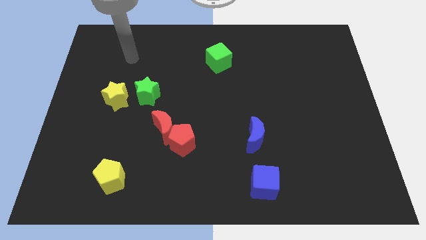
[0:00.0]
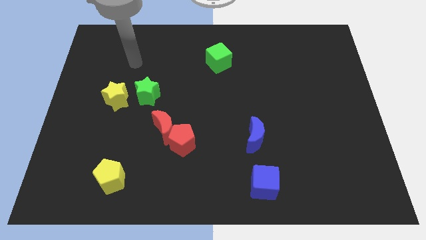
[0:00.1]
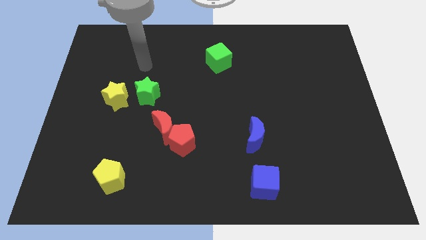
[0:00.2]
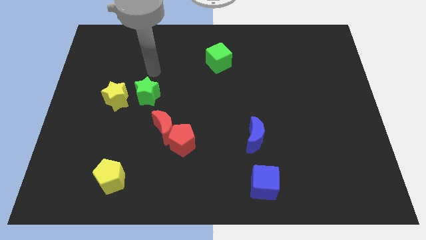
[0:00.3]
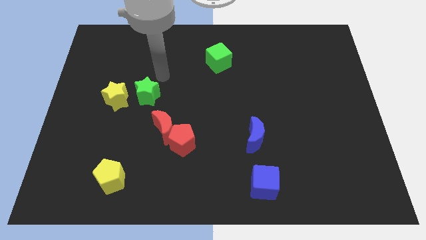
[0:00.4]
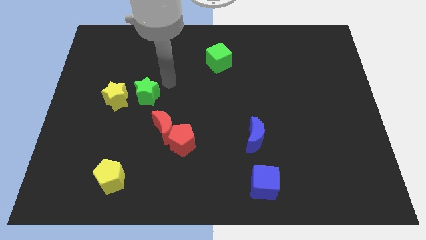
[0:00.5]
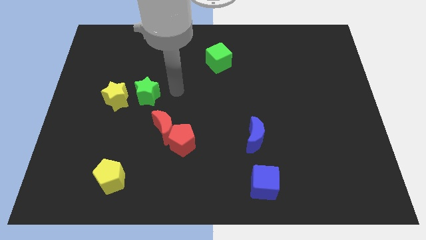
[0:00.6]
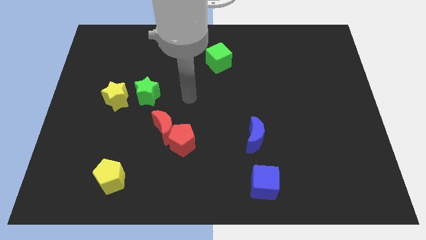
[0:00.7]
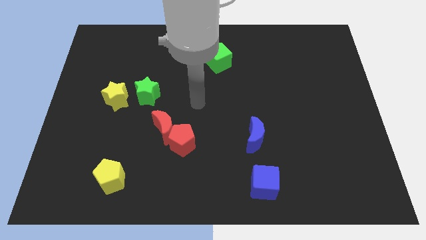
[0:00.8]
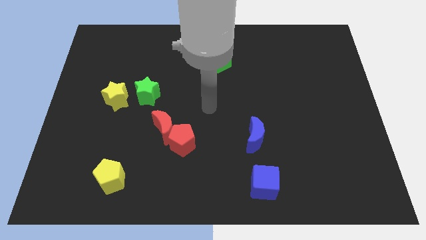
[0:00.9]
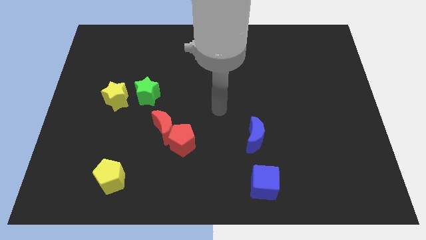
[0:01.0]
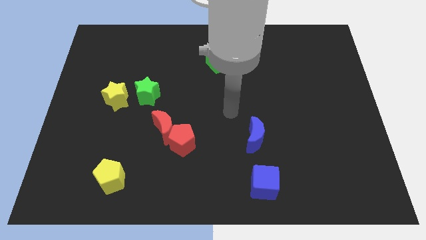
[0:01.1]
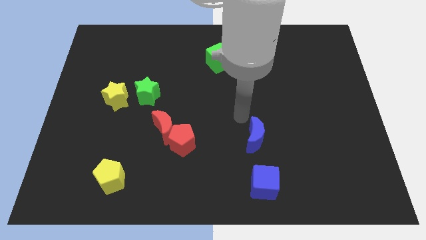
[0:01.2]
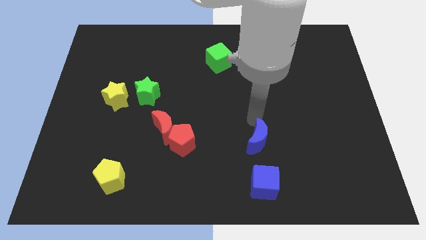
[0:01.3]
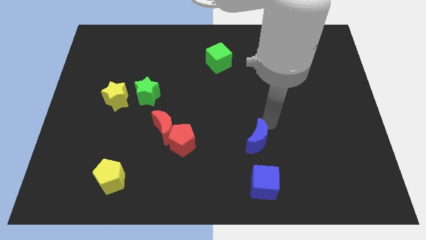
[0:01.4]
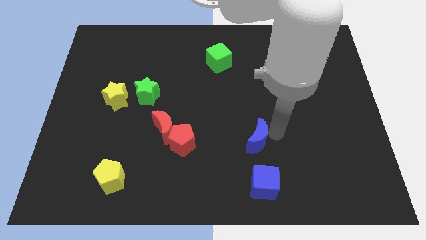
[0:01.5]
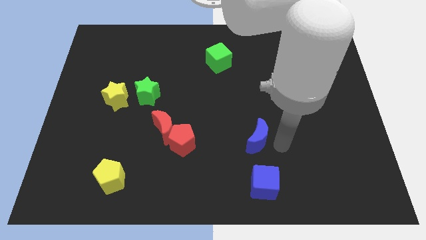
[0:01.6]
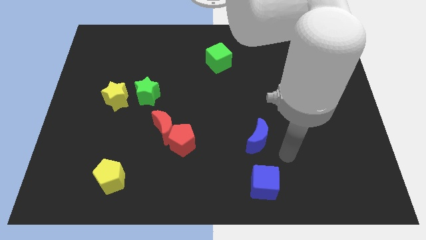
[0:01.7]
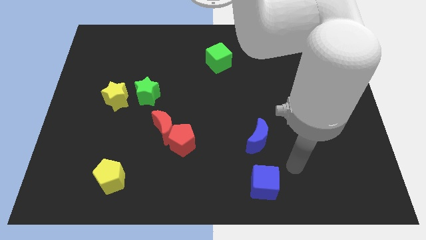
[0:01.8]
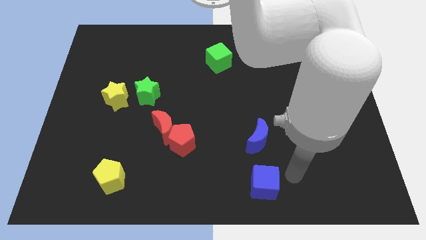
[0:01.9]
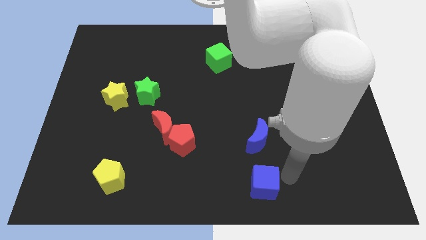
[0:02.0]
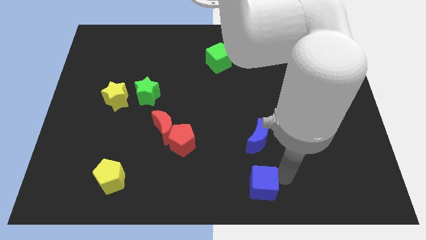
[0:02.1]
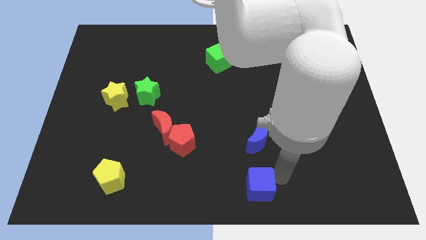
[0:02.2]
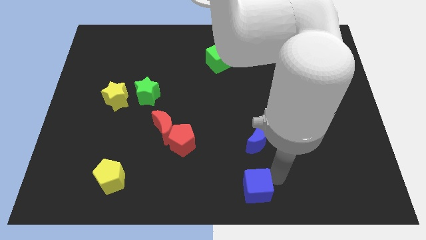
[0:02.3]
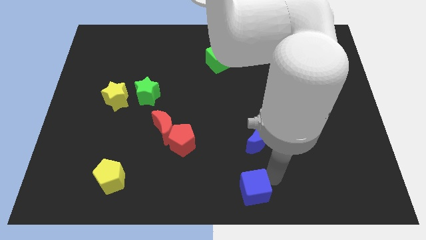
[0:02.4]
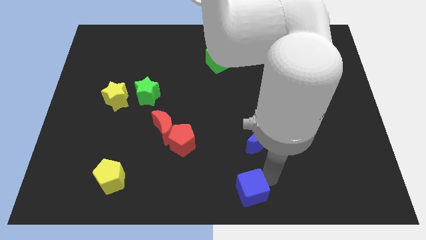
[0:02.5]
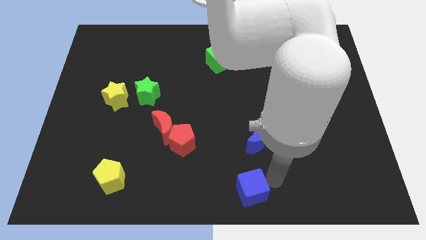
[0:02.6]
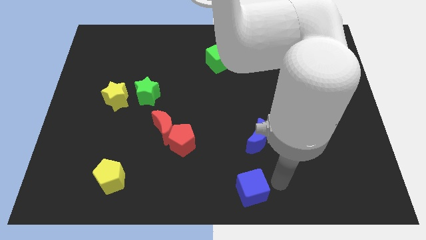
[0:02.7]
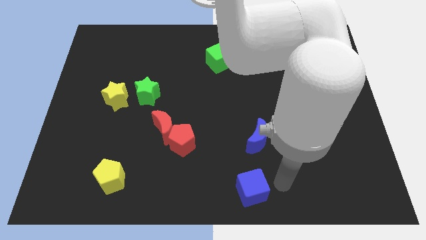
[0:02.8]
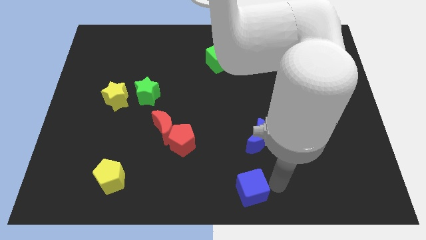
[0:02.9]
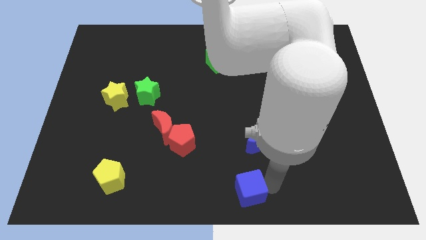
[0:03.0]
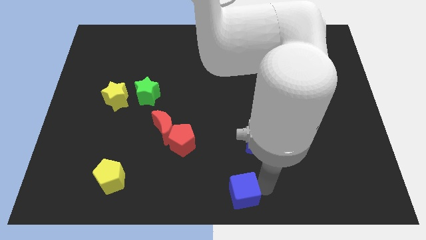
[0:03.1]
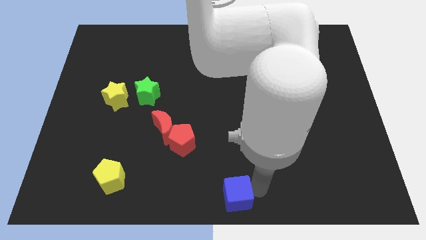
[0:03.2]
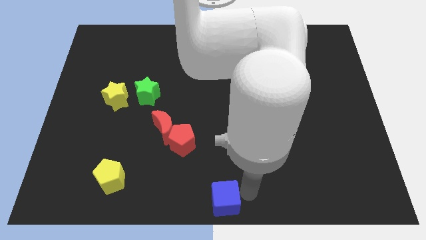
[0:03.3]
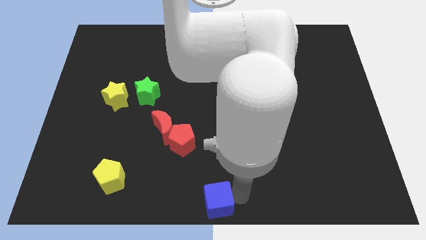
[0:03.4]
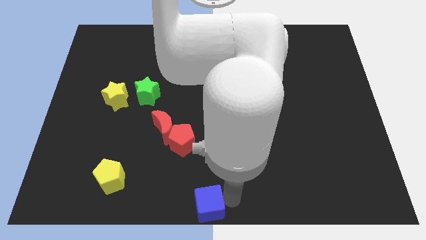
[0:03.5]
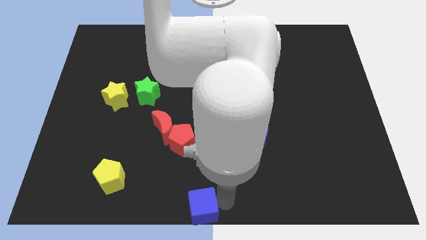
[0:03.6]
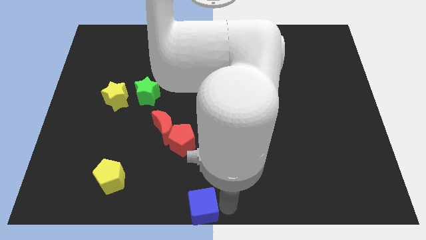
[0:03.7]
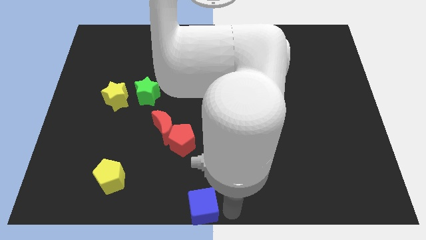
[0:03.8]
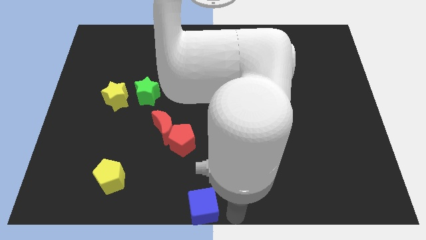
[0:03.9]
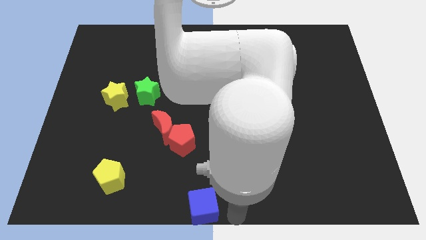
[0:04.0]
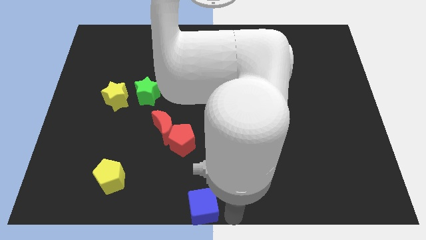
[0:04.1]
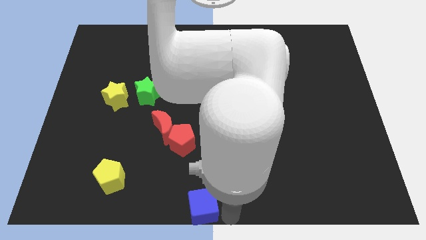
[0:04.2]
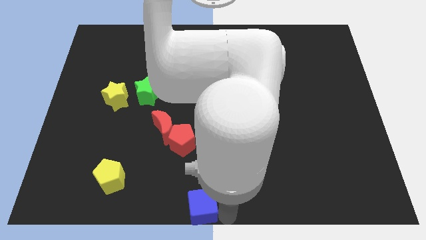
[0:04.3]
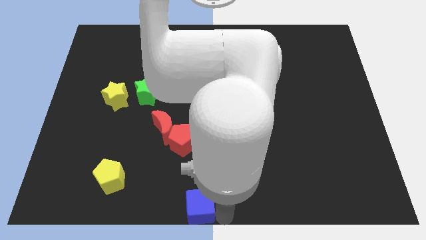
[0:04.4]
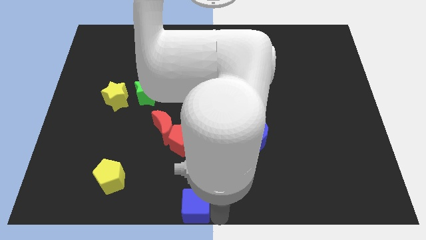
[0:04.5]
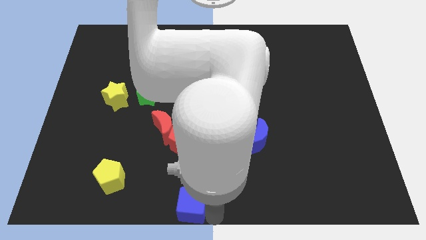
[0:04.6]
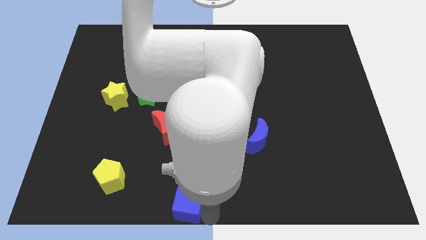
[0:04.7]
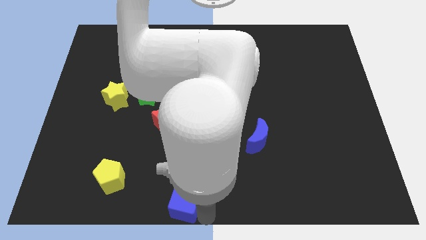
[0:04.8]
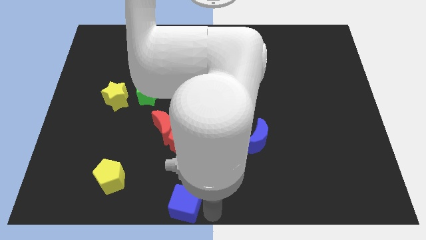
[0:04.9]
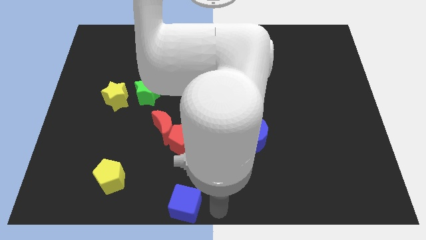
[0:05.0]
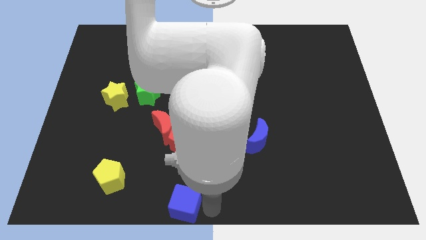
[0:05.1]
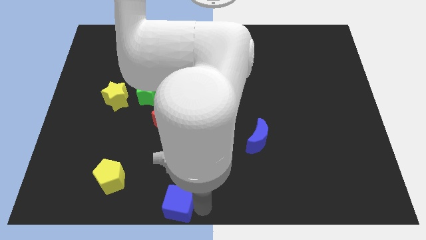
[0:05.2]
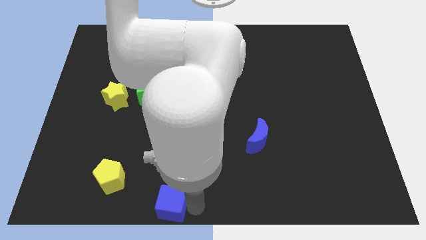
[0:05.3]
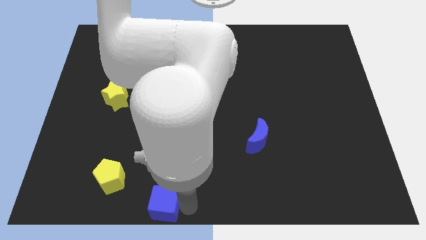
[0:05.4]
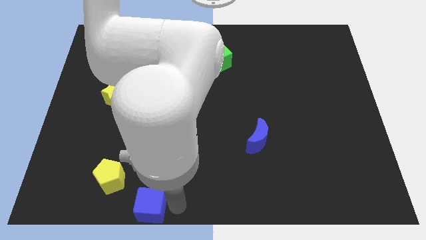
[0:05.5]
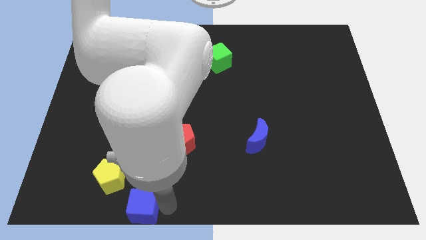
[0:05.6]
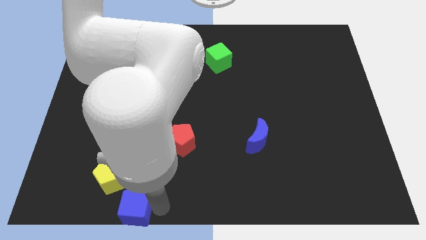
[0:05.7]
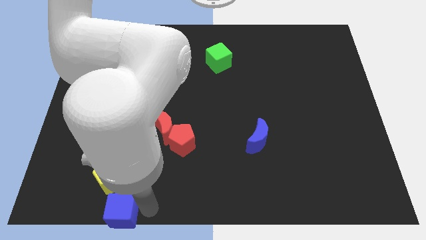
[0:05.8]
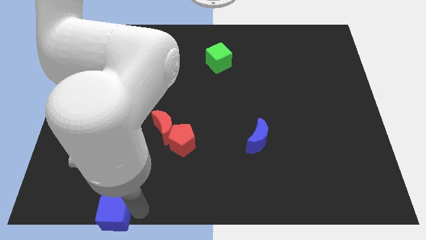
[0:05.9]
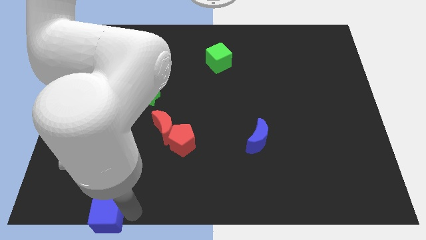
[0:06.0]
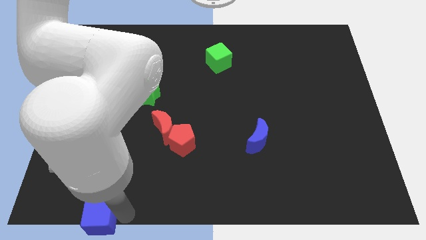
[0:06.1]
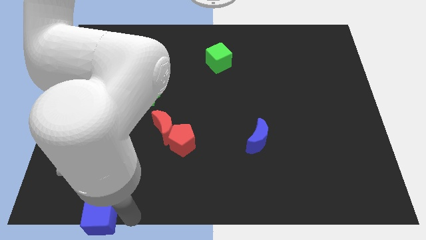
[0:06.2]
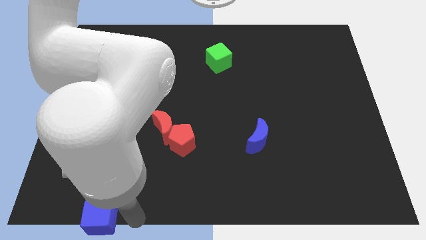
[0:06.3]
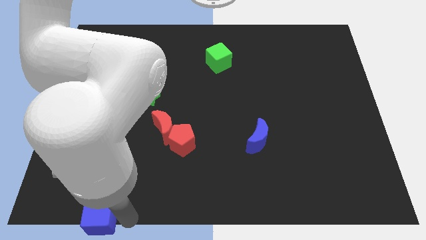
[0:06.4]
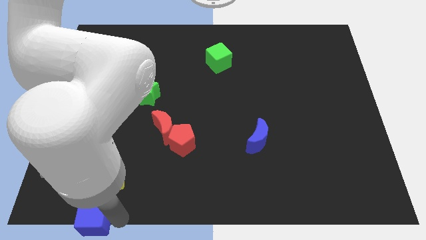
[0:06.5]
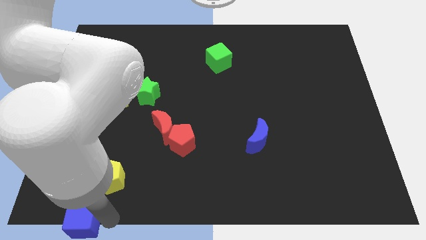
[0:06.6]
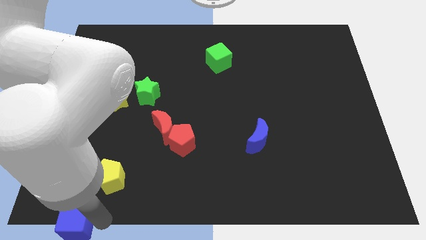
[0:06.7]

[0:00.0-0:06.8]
slide the blue cube to the bottom left
